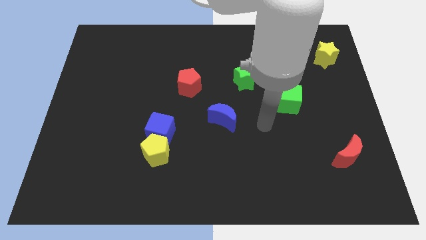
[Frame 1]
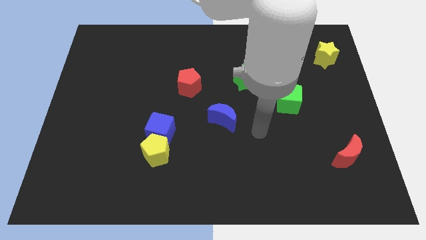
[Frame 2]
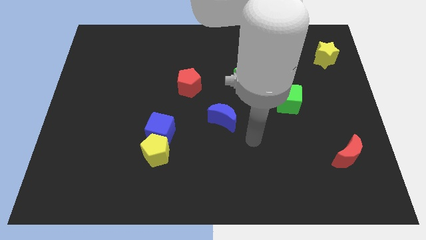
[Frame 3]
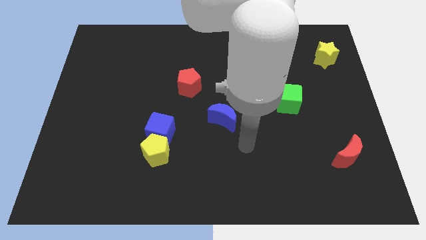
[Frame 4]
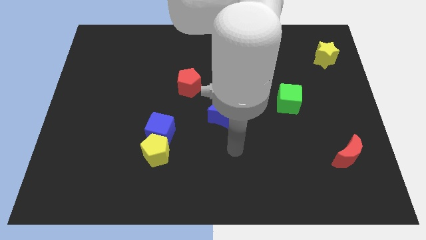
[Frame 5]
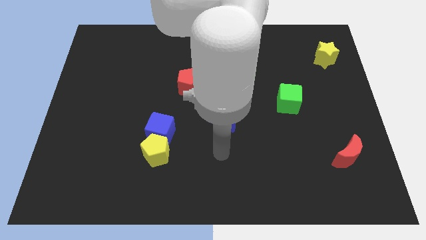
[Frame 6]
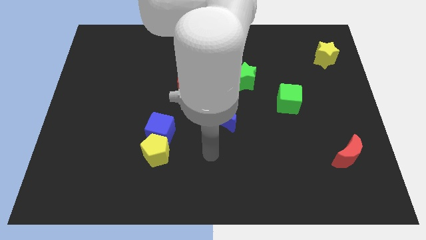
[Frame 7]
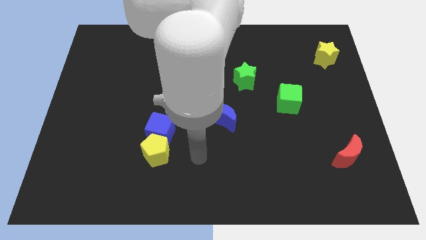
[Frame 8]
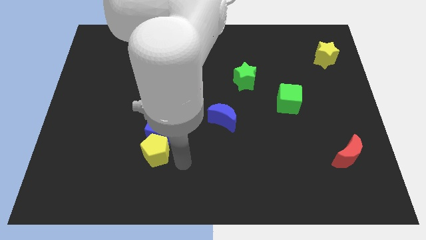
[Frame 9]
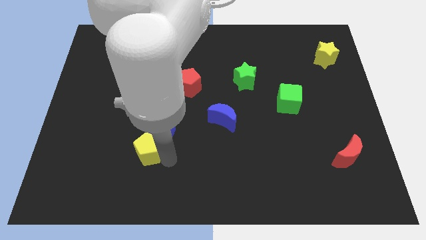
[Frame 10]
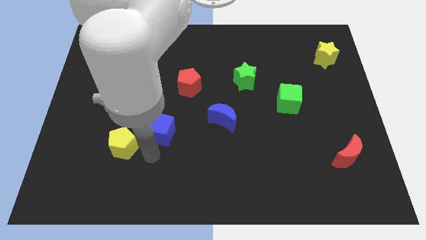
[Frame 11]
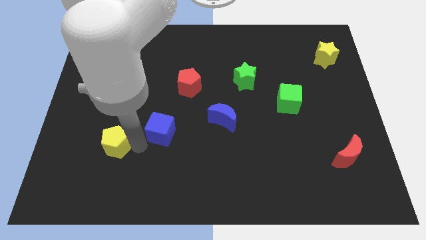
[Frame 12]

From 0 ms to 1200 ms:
separate the blue cube from the yellow pentagon

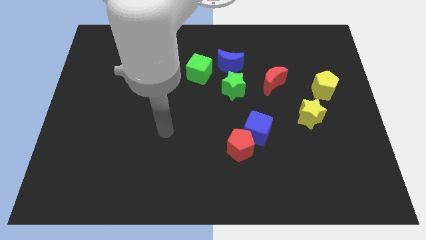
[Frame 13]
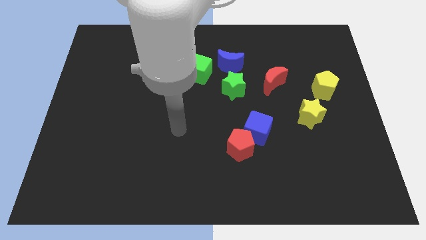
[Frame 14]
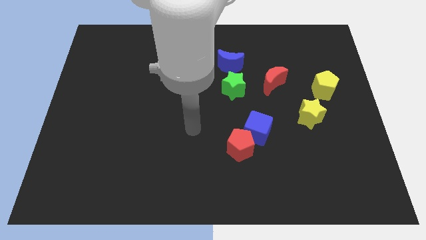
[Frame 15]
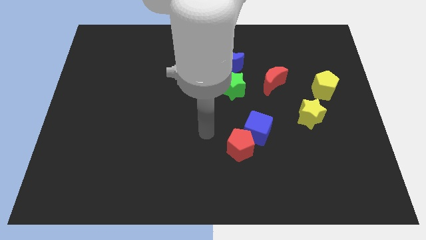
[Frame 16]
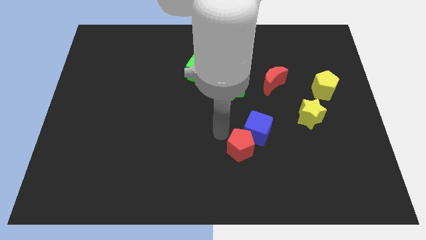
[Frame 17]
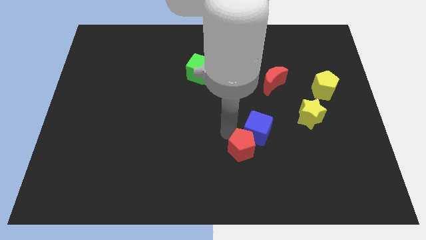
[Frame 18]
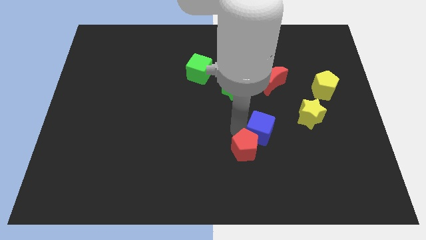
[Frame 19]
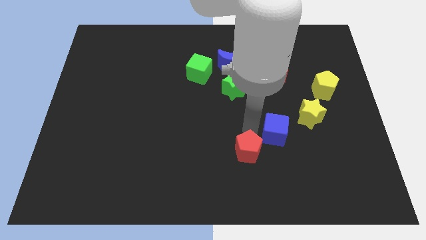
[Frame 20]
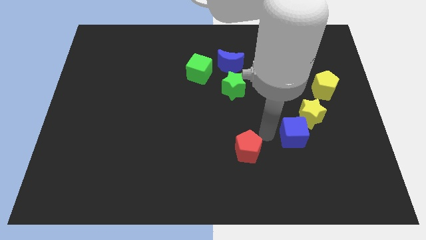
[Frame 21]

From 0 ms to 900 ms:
separate the red pentagon from the blue cube

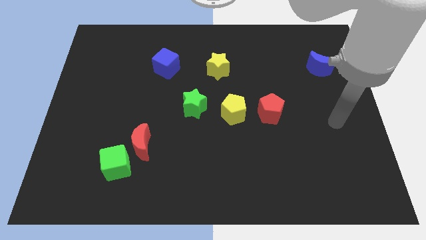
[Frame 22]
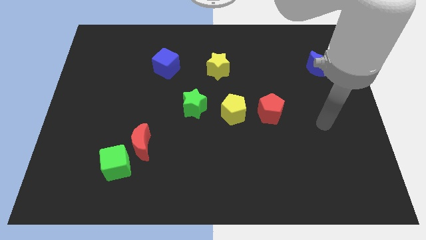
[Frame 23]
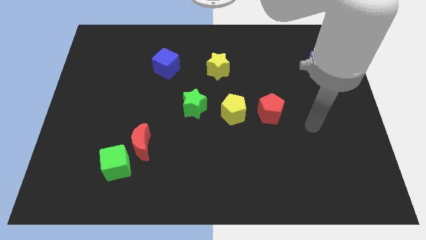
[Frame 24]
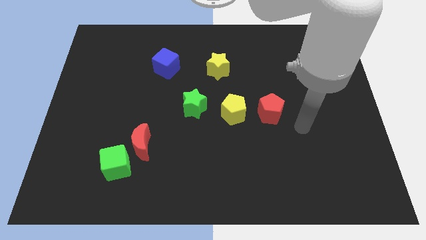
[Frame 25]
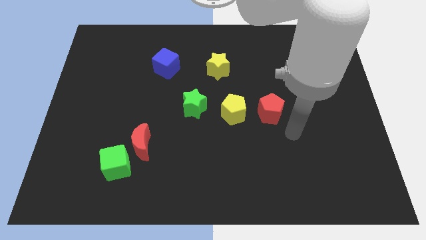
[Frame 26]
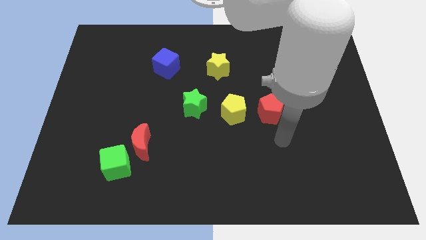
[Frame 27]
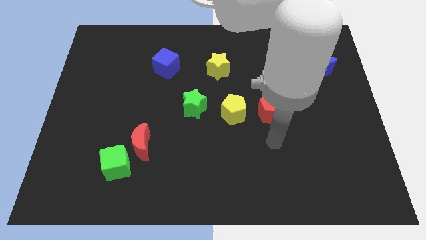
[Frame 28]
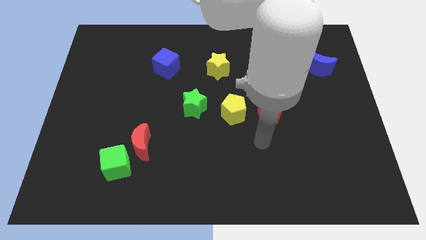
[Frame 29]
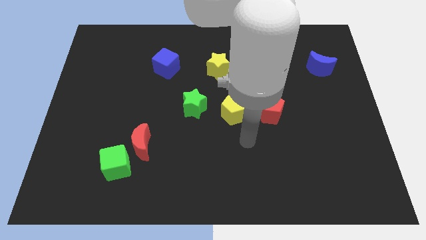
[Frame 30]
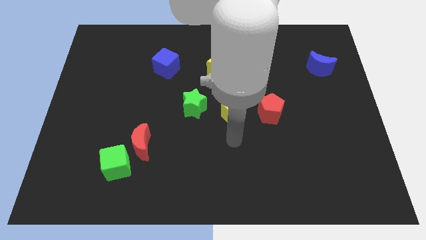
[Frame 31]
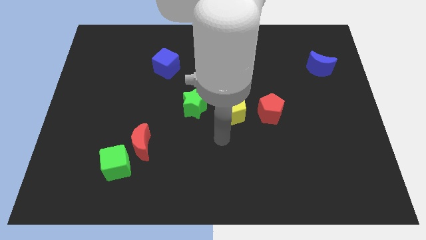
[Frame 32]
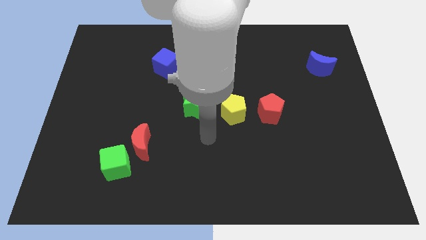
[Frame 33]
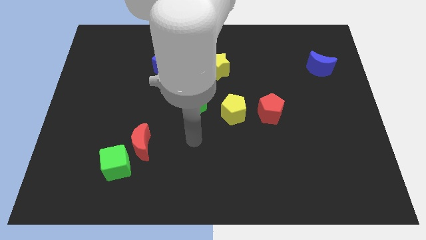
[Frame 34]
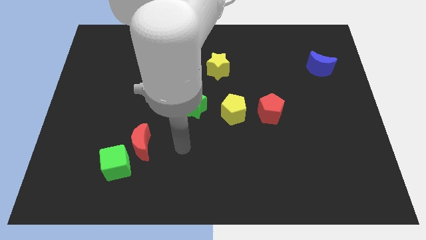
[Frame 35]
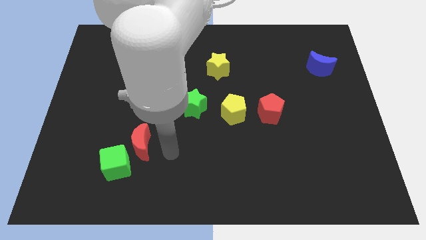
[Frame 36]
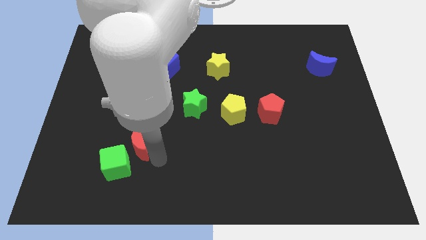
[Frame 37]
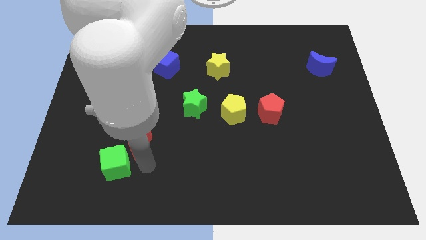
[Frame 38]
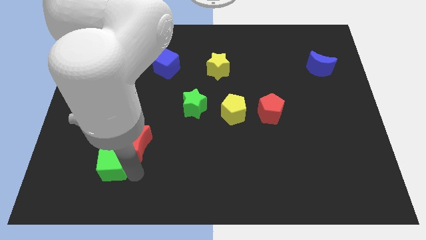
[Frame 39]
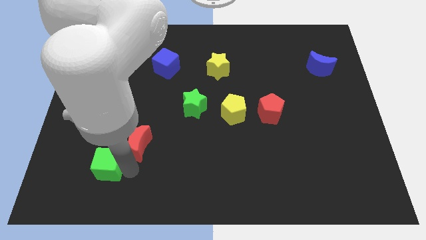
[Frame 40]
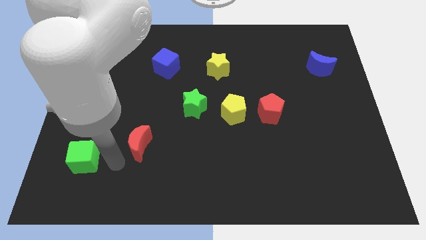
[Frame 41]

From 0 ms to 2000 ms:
pull the red moon apart from the green cube

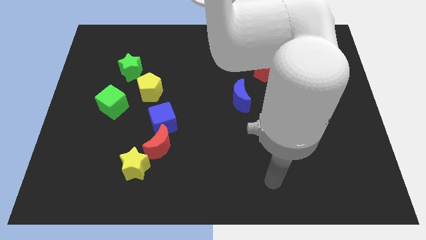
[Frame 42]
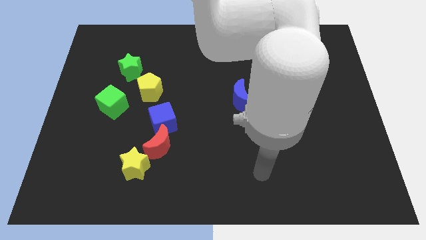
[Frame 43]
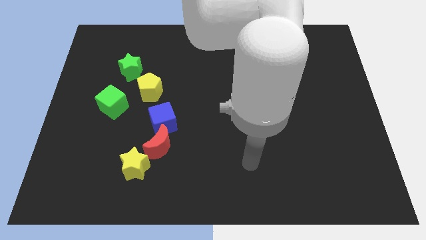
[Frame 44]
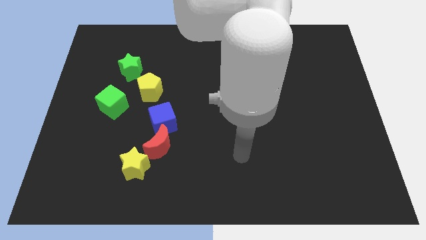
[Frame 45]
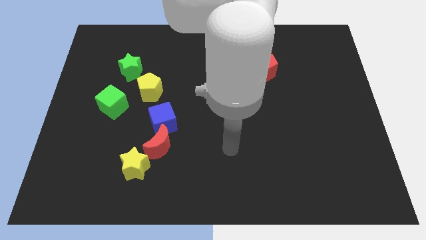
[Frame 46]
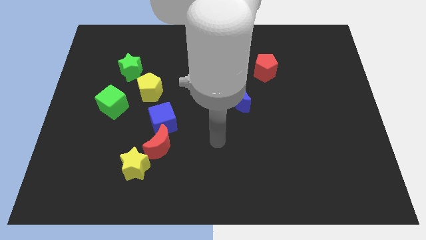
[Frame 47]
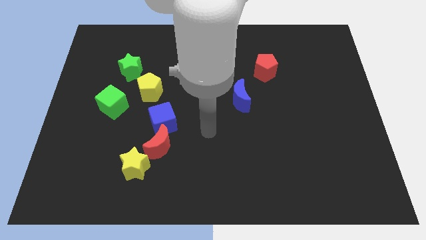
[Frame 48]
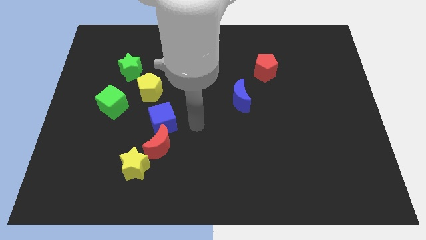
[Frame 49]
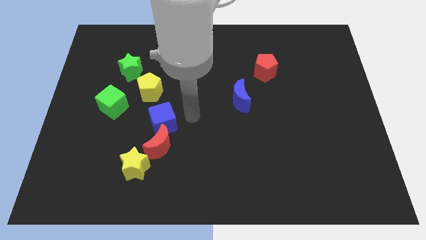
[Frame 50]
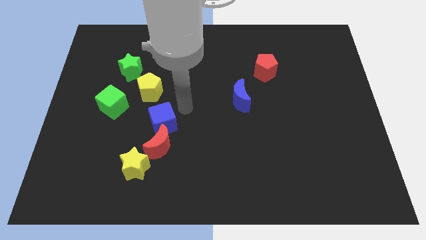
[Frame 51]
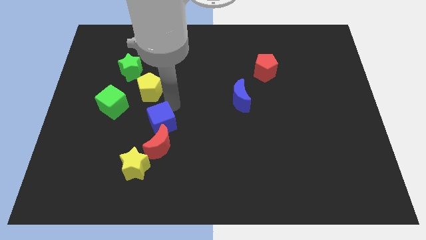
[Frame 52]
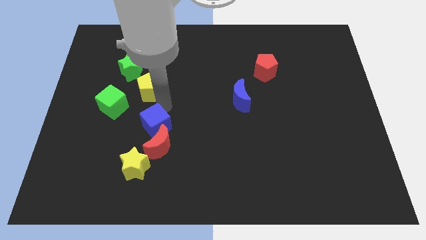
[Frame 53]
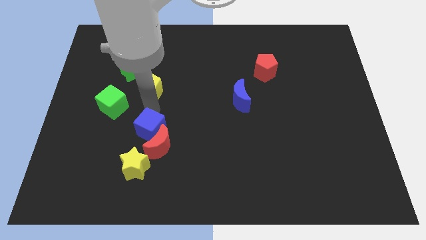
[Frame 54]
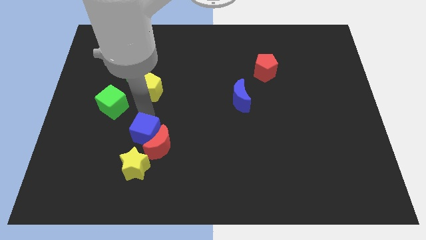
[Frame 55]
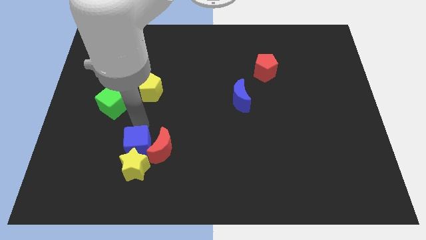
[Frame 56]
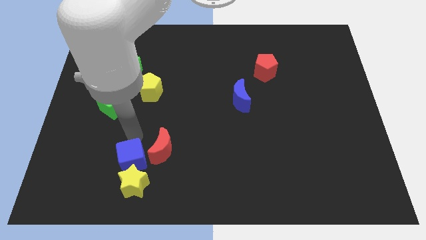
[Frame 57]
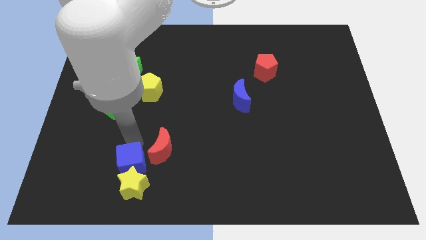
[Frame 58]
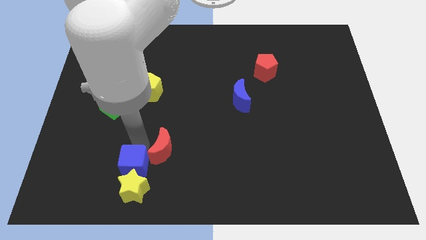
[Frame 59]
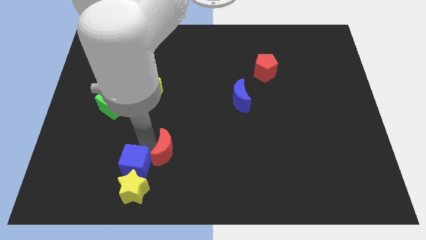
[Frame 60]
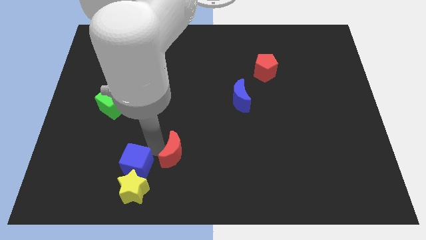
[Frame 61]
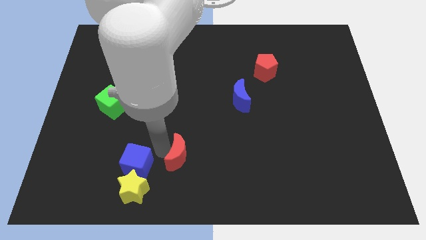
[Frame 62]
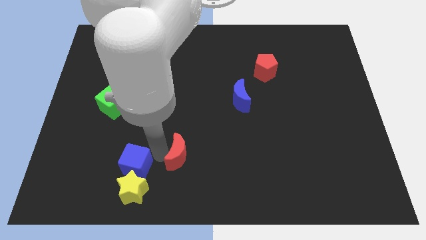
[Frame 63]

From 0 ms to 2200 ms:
move the red moon away from the blue cube and yellow star

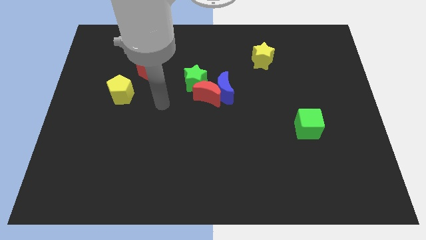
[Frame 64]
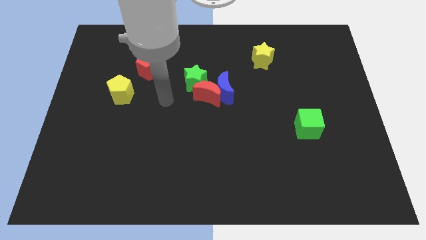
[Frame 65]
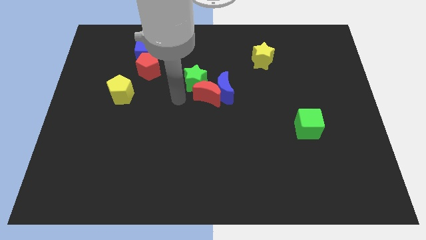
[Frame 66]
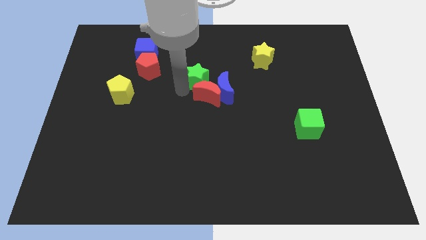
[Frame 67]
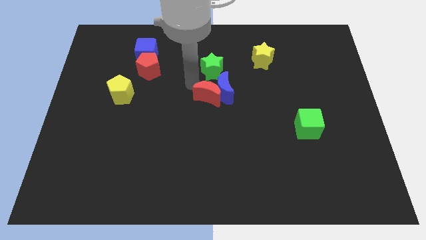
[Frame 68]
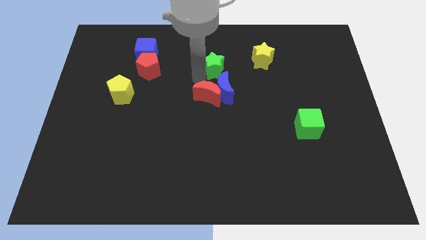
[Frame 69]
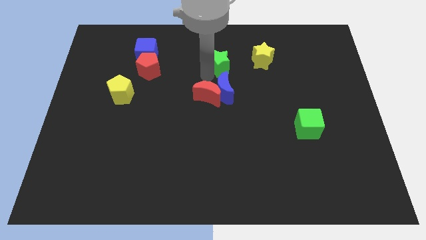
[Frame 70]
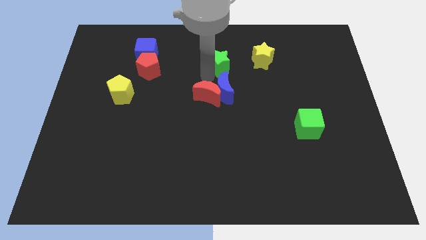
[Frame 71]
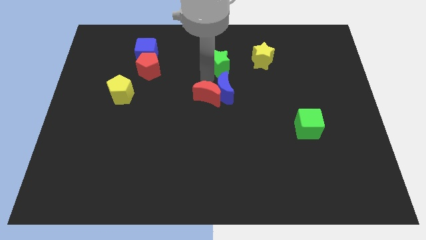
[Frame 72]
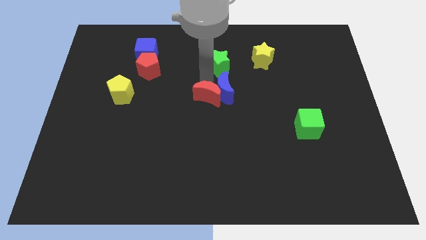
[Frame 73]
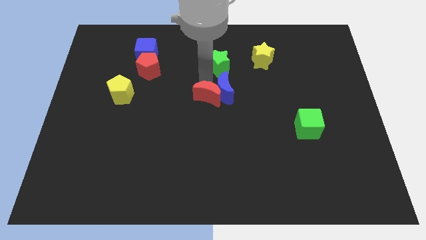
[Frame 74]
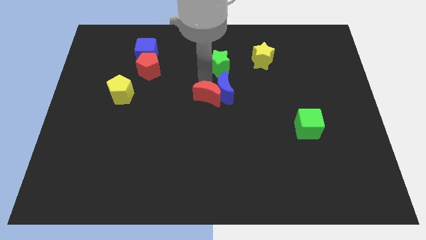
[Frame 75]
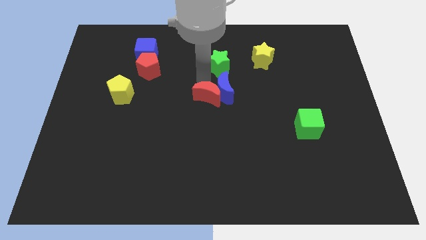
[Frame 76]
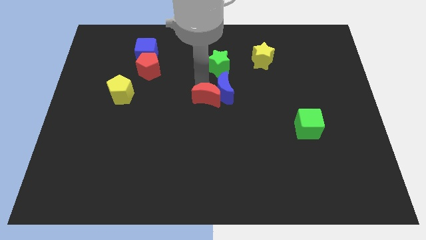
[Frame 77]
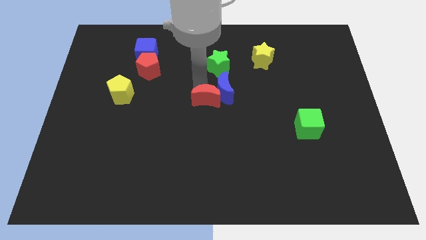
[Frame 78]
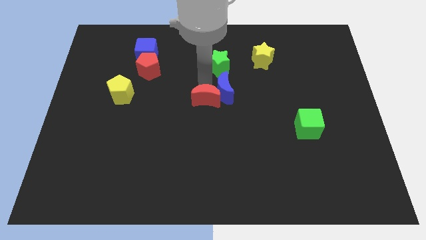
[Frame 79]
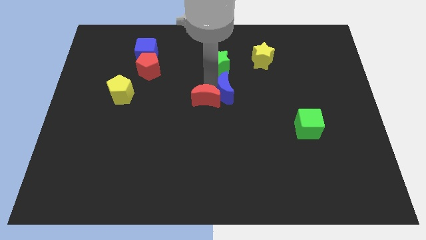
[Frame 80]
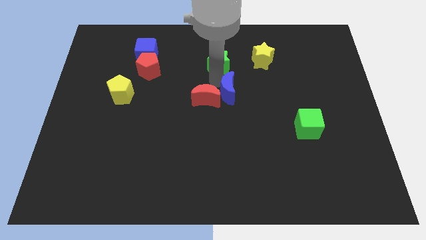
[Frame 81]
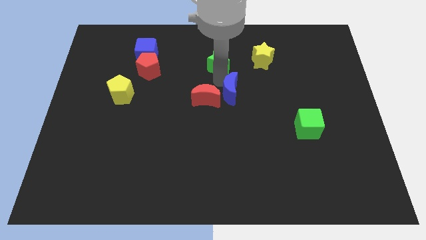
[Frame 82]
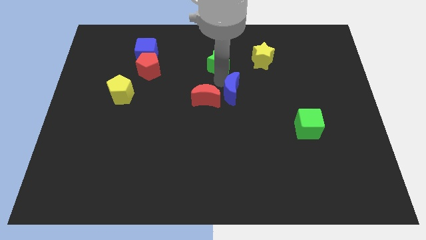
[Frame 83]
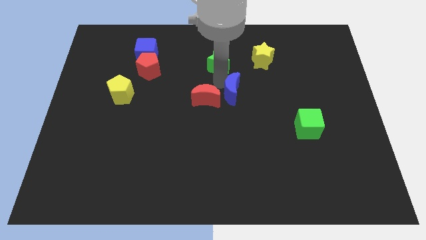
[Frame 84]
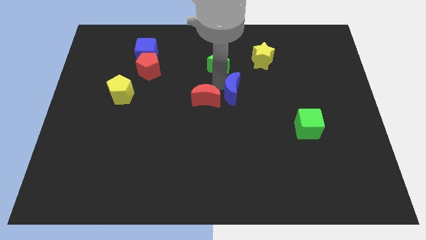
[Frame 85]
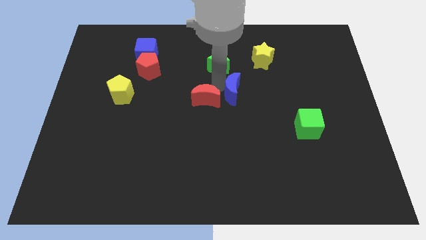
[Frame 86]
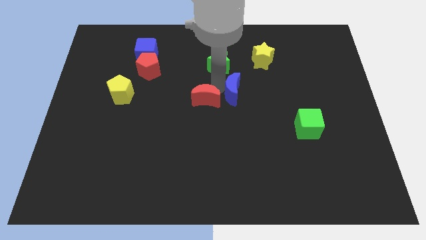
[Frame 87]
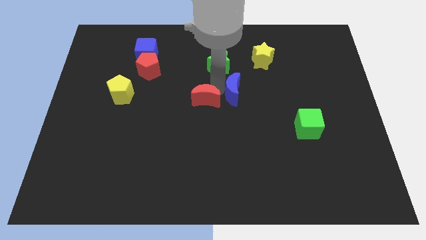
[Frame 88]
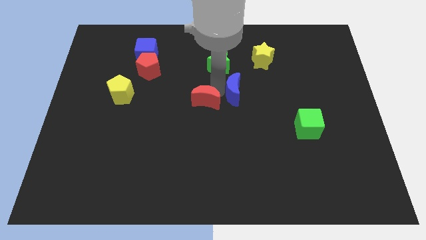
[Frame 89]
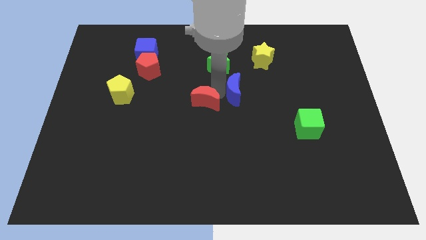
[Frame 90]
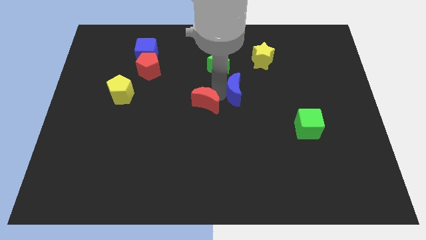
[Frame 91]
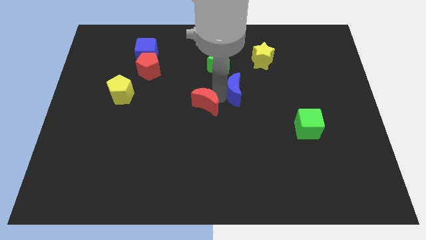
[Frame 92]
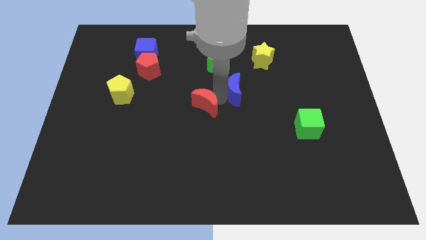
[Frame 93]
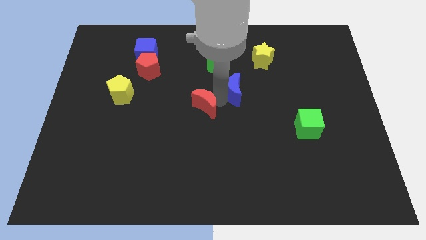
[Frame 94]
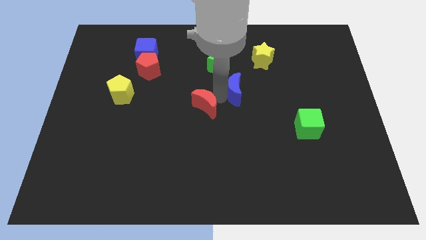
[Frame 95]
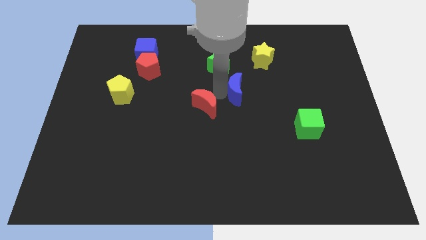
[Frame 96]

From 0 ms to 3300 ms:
pull the red moon apart from the blue moon and green star
